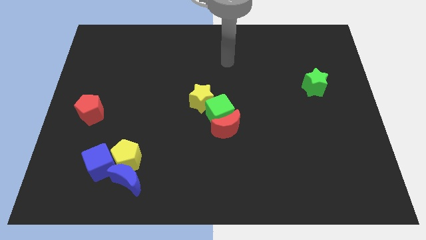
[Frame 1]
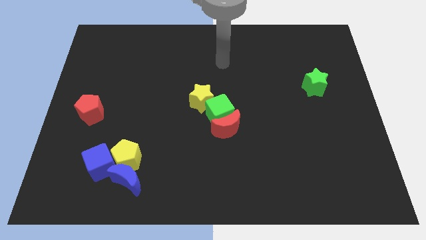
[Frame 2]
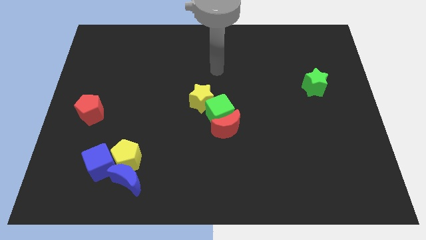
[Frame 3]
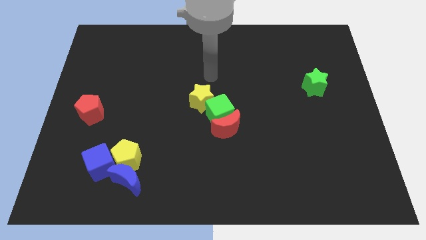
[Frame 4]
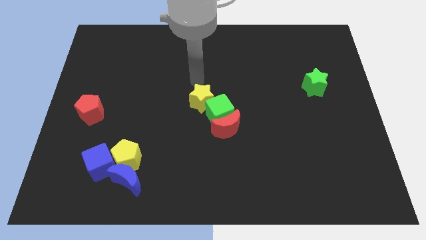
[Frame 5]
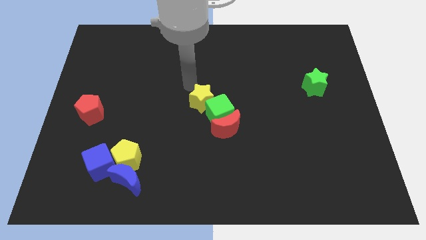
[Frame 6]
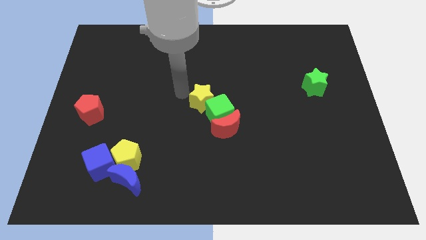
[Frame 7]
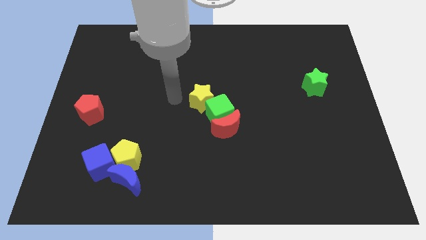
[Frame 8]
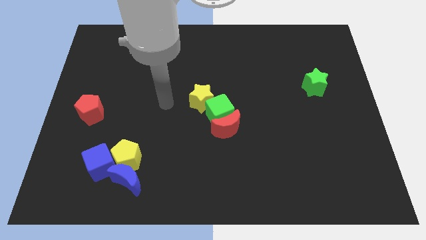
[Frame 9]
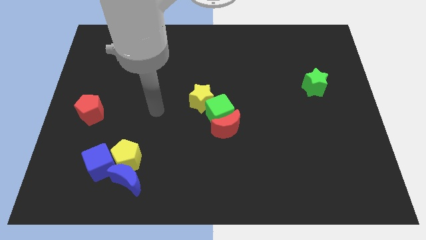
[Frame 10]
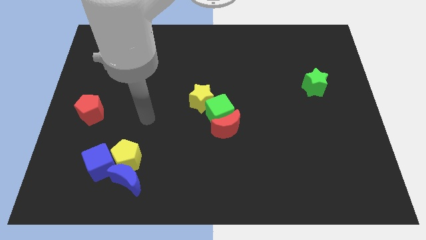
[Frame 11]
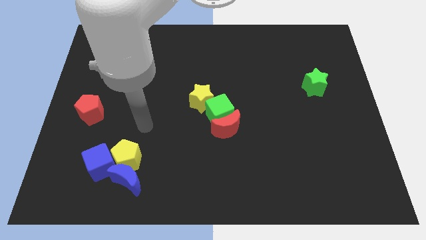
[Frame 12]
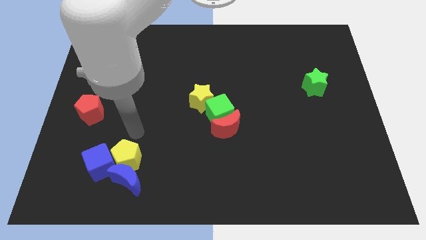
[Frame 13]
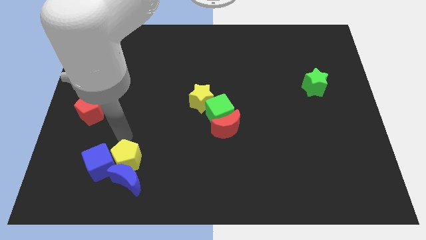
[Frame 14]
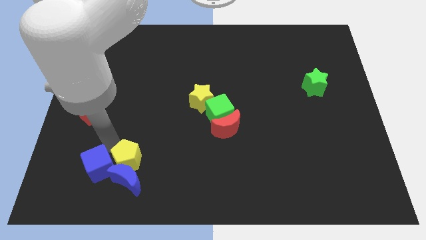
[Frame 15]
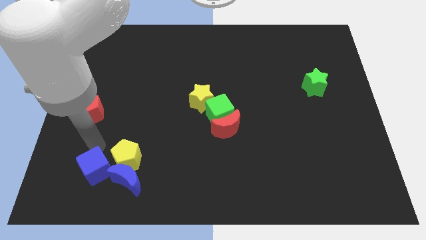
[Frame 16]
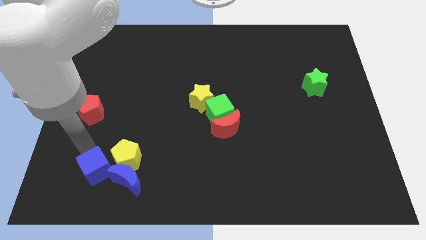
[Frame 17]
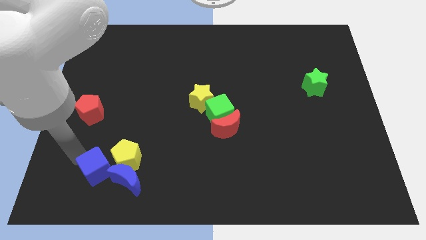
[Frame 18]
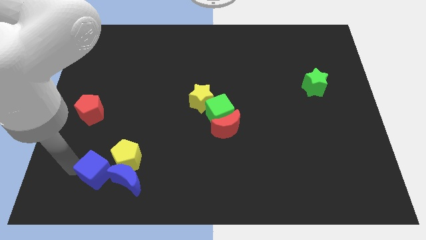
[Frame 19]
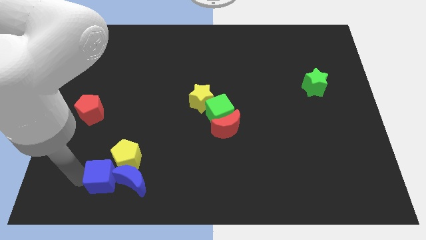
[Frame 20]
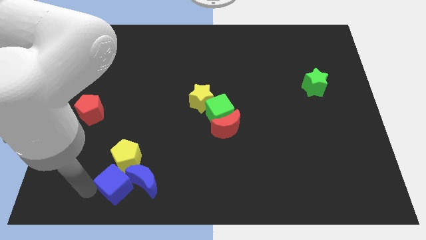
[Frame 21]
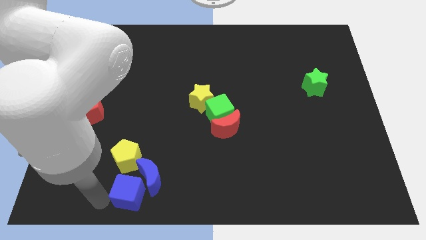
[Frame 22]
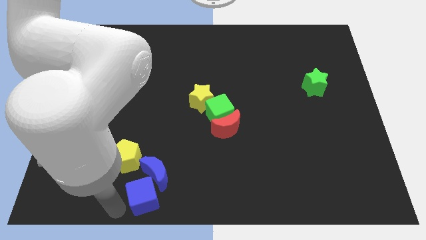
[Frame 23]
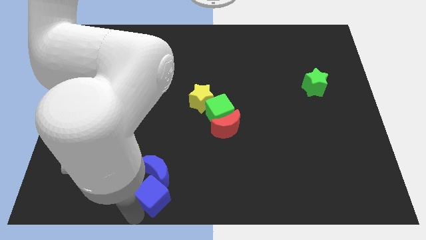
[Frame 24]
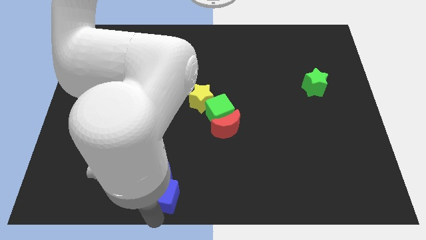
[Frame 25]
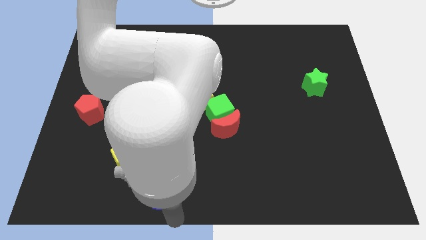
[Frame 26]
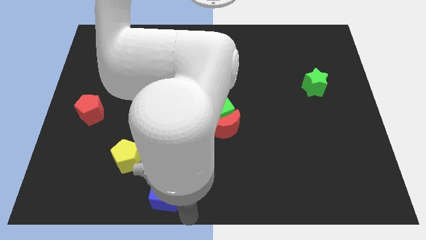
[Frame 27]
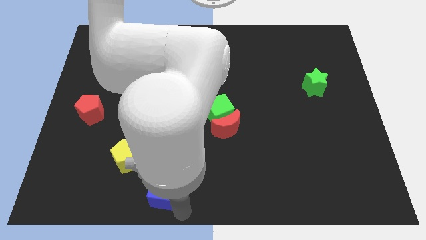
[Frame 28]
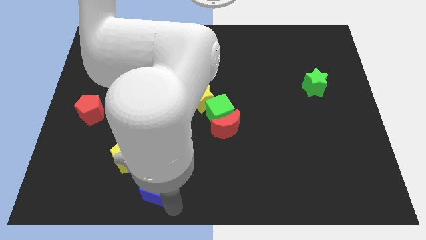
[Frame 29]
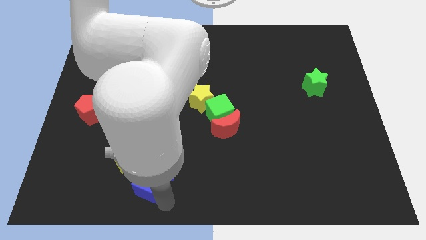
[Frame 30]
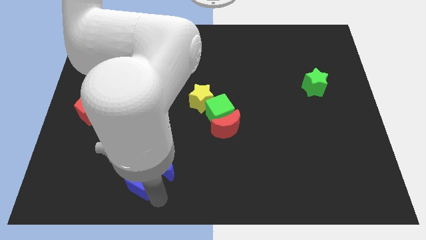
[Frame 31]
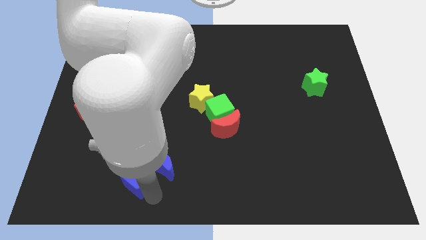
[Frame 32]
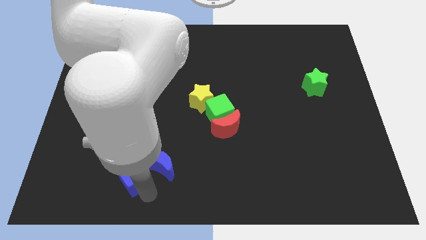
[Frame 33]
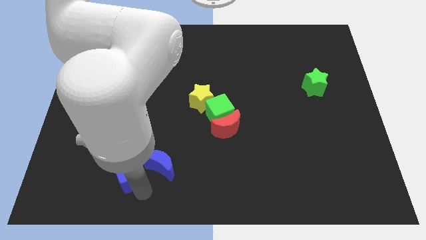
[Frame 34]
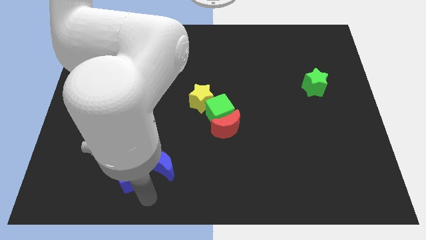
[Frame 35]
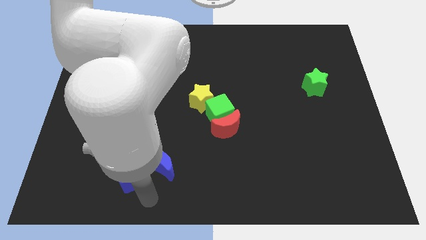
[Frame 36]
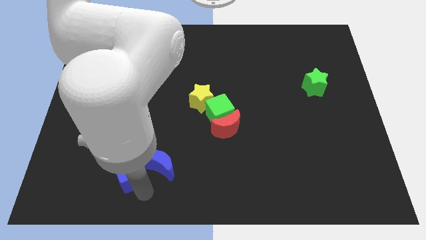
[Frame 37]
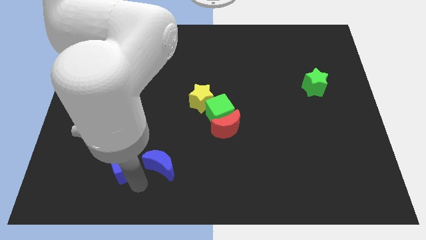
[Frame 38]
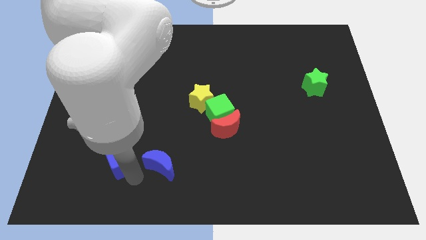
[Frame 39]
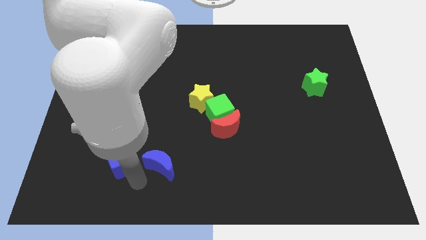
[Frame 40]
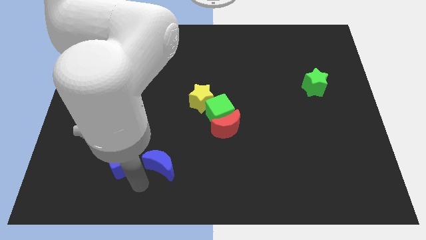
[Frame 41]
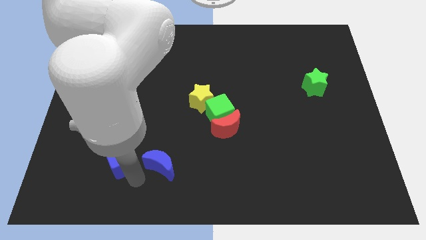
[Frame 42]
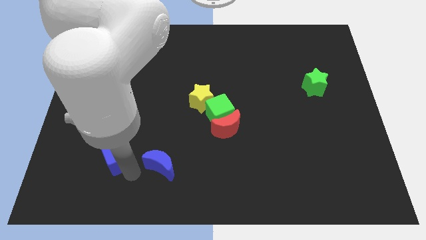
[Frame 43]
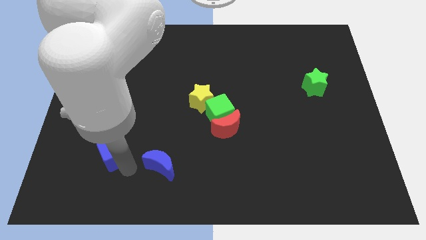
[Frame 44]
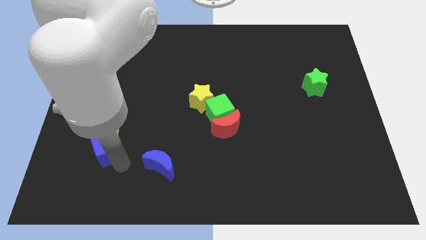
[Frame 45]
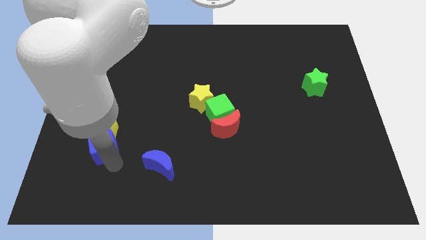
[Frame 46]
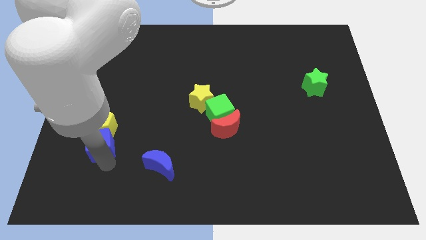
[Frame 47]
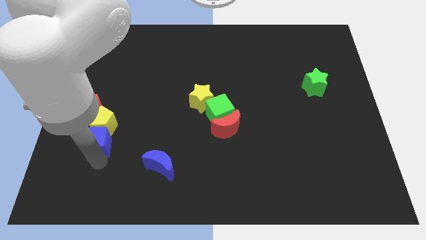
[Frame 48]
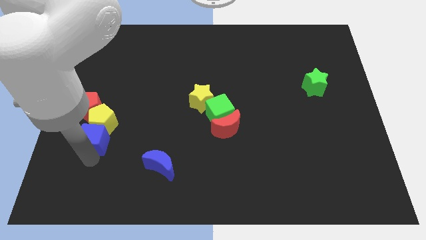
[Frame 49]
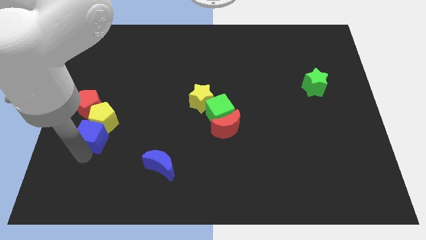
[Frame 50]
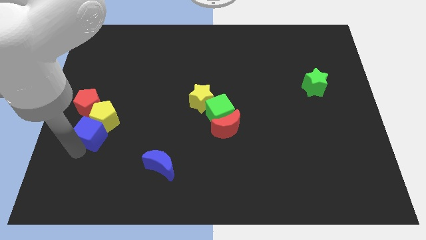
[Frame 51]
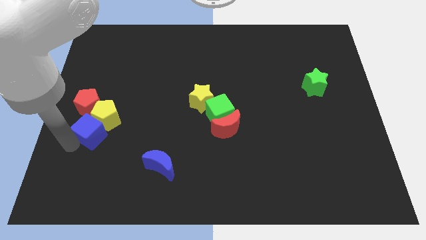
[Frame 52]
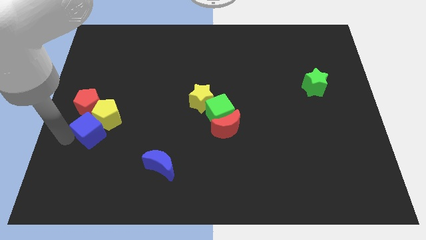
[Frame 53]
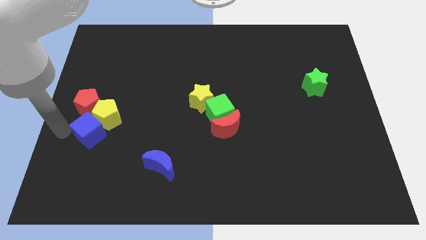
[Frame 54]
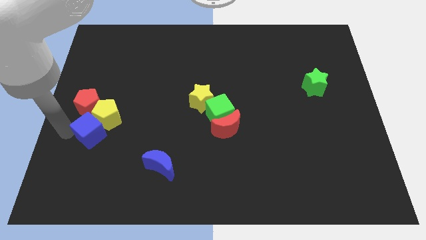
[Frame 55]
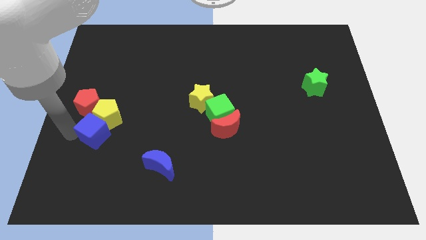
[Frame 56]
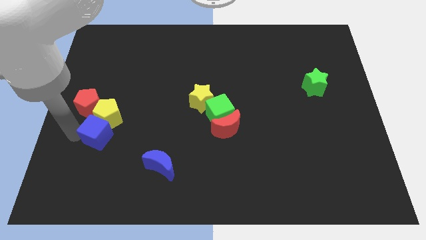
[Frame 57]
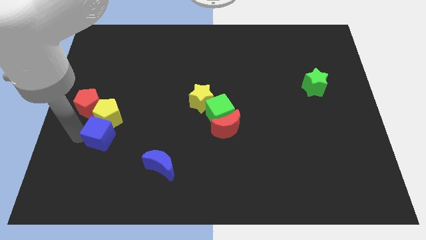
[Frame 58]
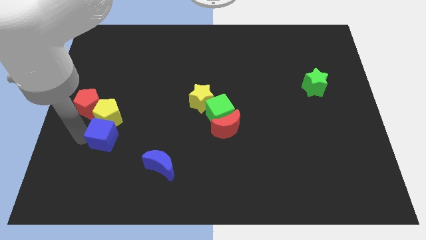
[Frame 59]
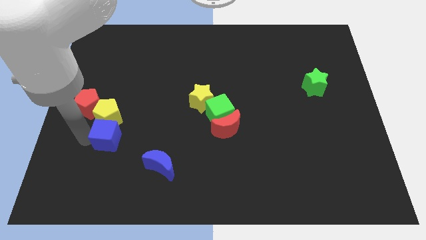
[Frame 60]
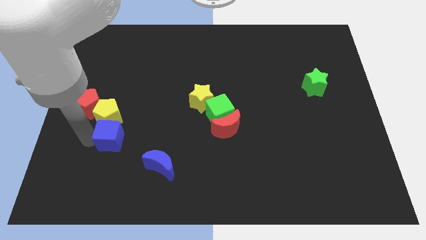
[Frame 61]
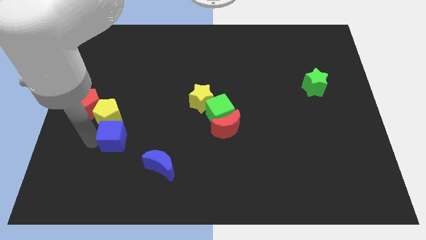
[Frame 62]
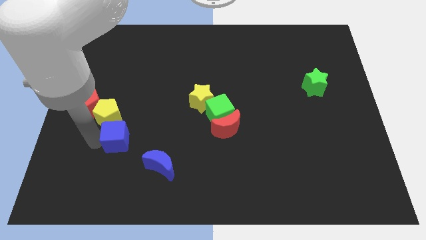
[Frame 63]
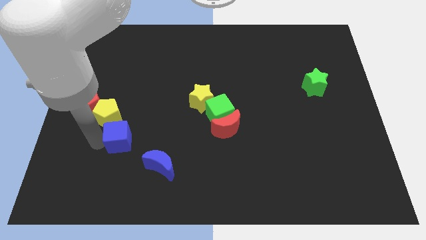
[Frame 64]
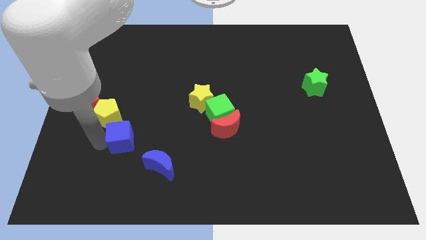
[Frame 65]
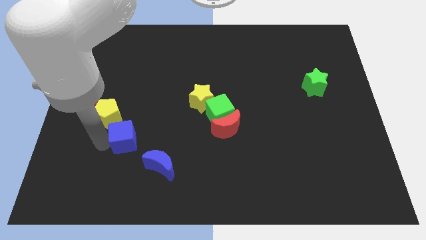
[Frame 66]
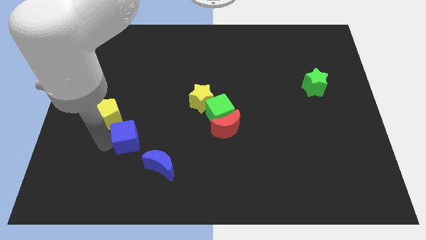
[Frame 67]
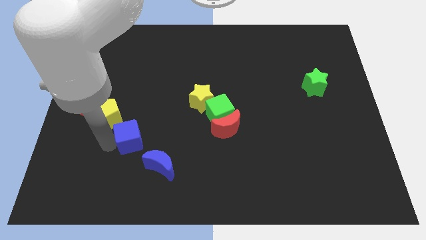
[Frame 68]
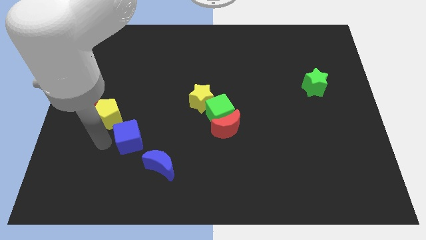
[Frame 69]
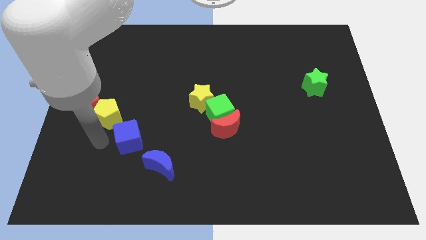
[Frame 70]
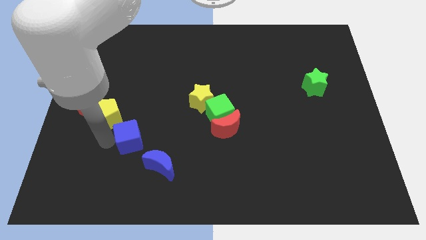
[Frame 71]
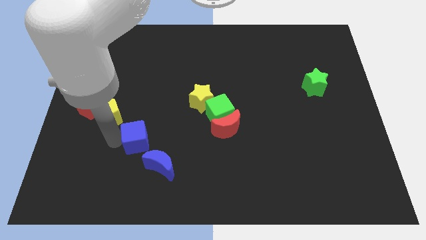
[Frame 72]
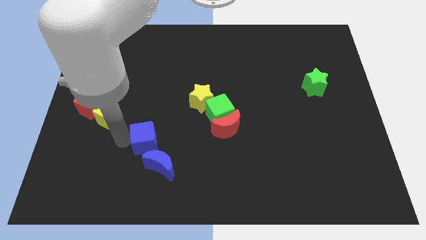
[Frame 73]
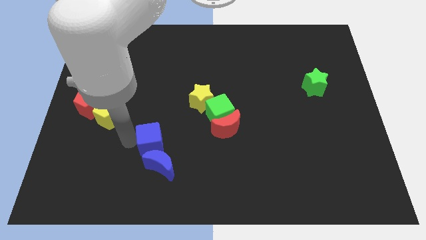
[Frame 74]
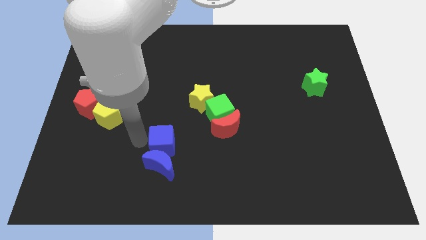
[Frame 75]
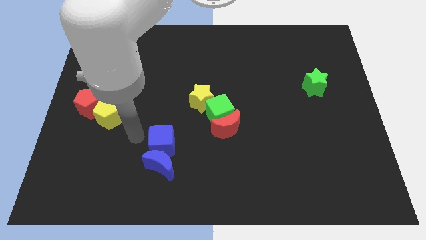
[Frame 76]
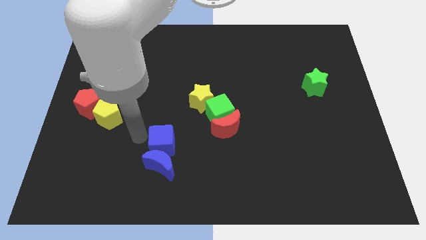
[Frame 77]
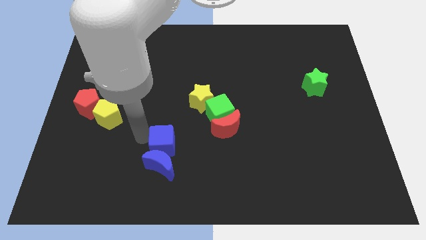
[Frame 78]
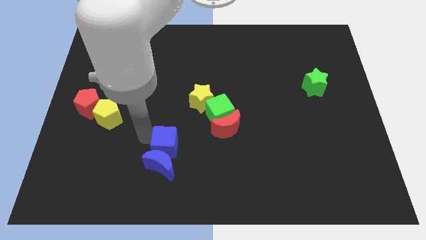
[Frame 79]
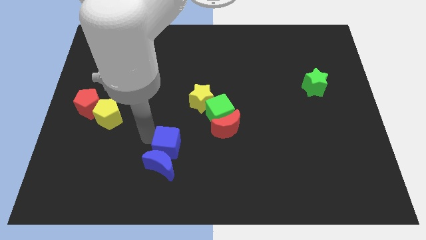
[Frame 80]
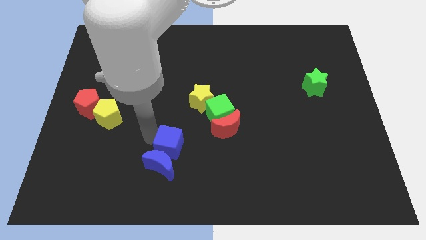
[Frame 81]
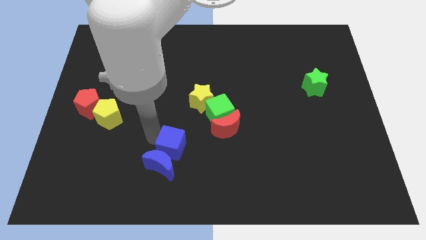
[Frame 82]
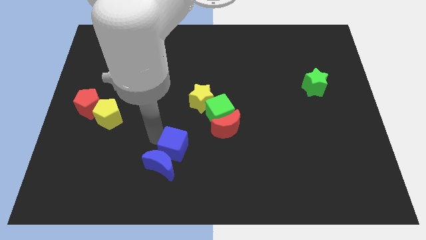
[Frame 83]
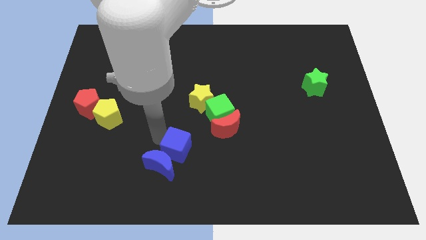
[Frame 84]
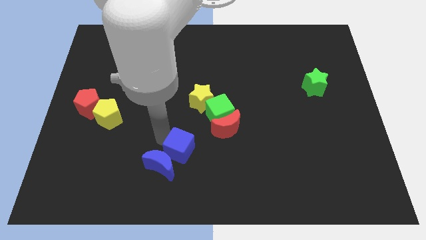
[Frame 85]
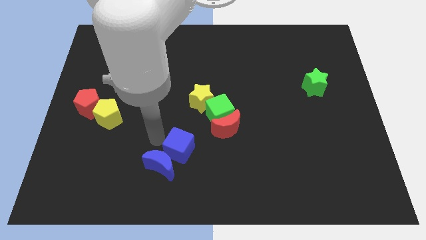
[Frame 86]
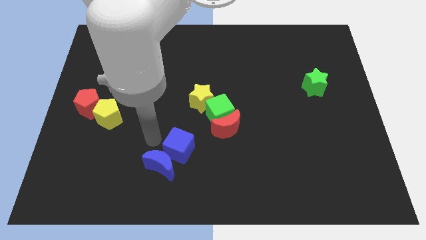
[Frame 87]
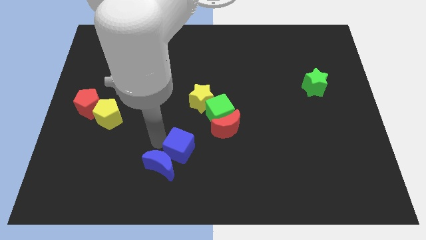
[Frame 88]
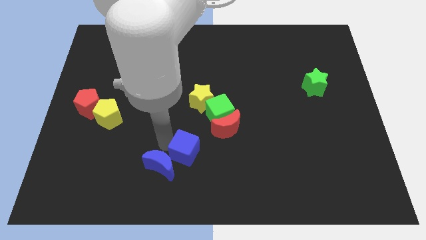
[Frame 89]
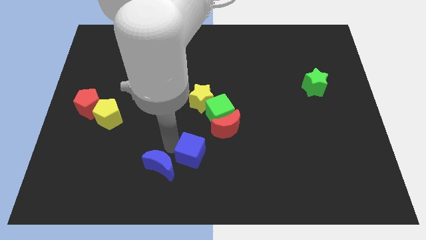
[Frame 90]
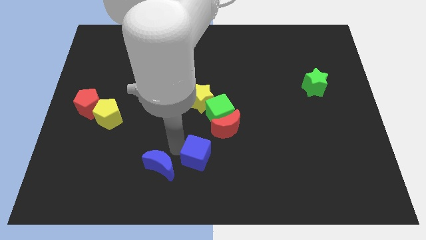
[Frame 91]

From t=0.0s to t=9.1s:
move the blue cube to the right
